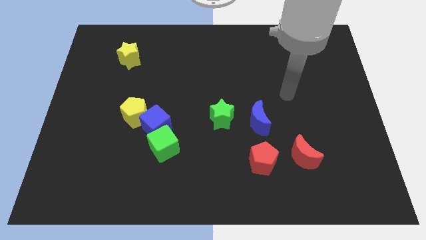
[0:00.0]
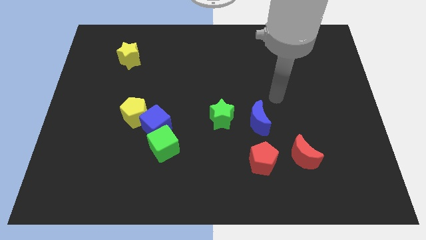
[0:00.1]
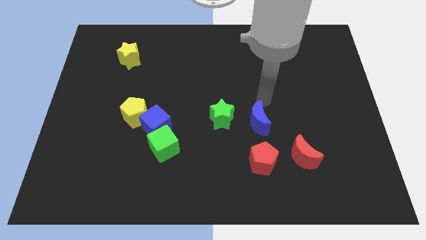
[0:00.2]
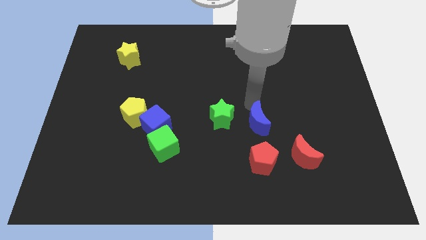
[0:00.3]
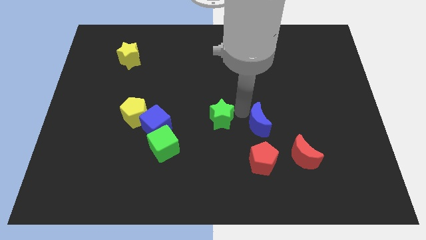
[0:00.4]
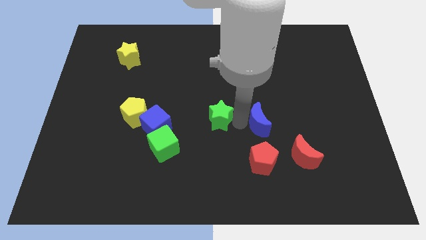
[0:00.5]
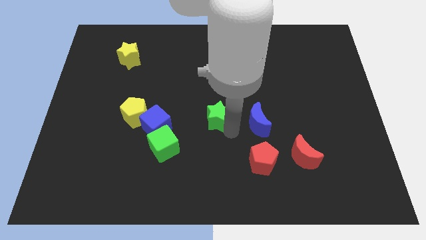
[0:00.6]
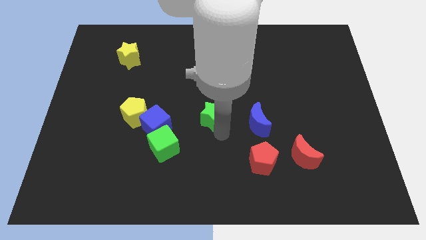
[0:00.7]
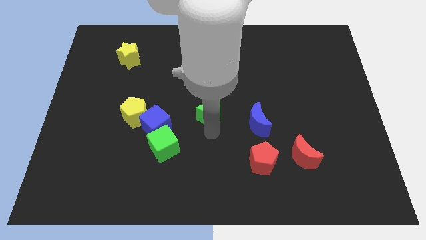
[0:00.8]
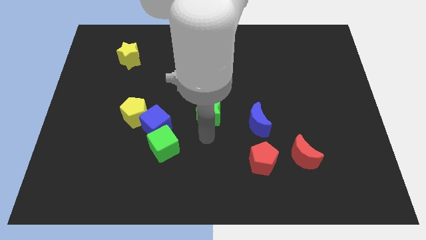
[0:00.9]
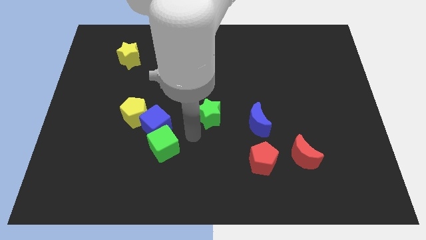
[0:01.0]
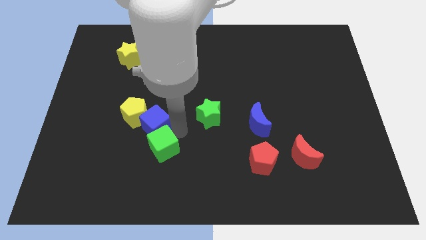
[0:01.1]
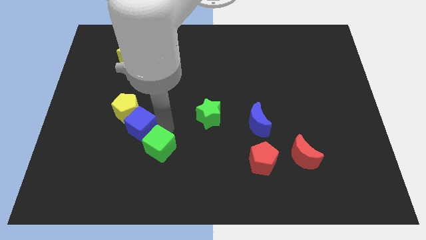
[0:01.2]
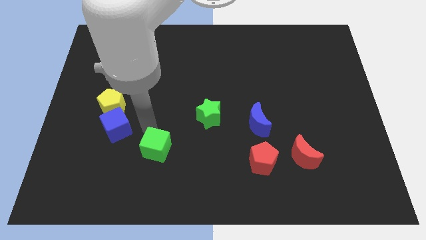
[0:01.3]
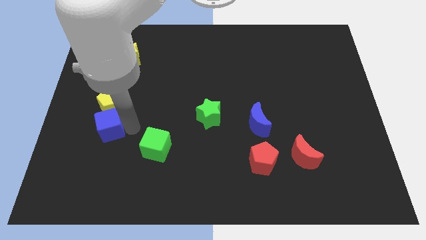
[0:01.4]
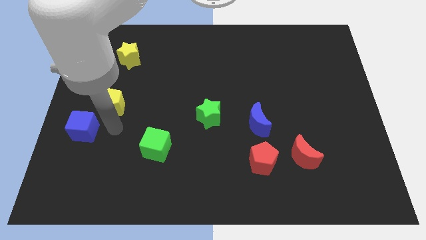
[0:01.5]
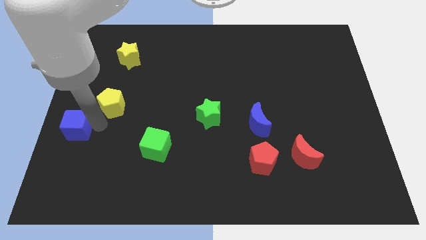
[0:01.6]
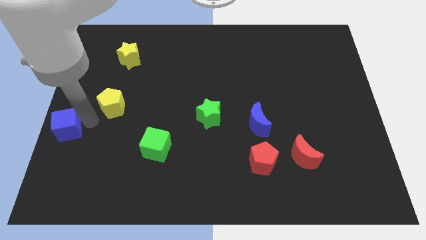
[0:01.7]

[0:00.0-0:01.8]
separate the yellow pentagon from the blue cube

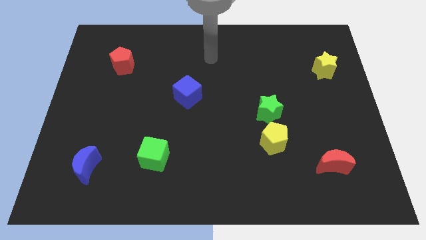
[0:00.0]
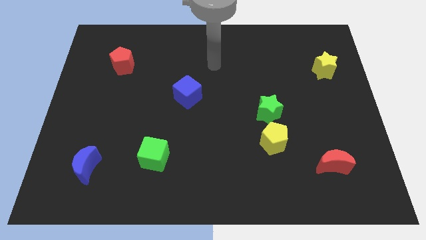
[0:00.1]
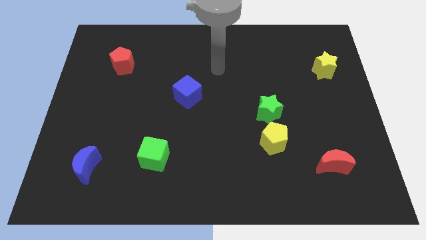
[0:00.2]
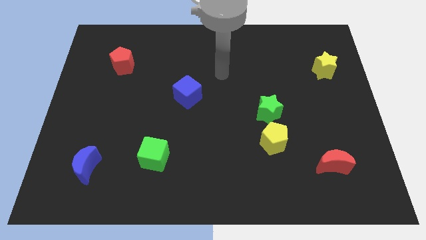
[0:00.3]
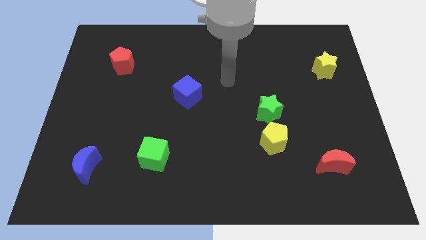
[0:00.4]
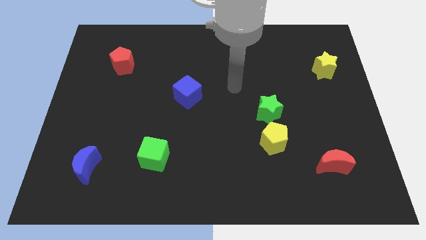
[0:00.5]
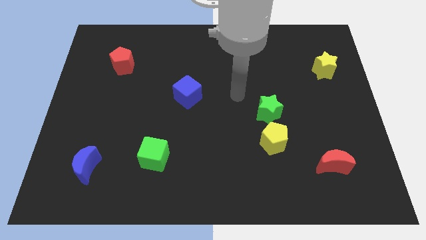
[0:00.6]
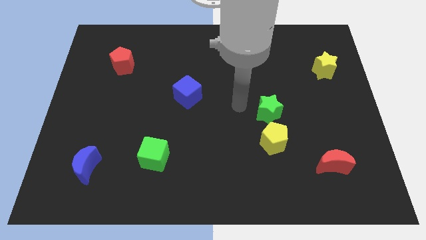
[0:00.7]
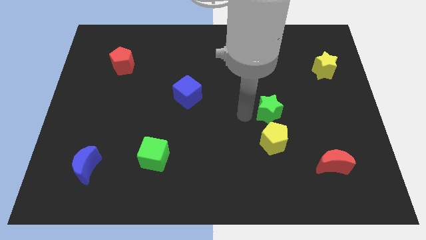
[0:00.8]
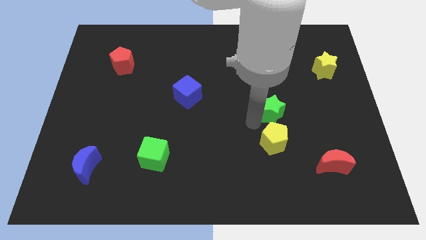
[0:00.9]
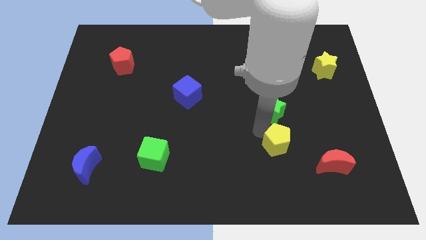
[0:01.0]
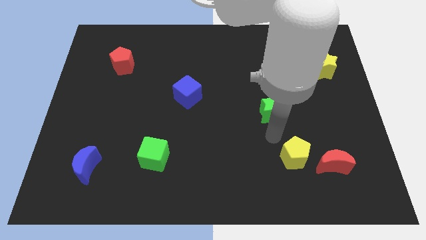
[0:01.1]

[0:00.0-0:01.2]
pull the green star apart from the yellow pentagon

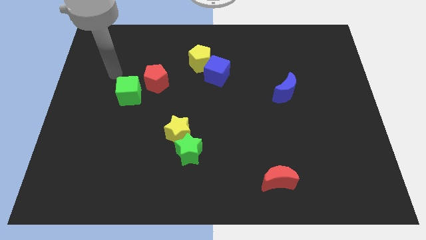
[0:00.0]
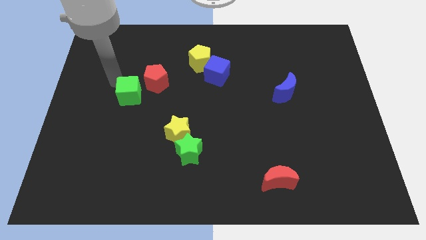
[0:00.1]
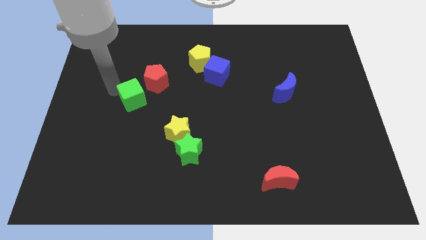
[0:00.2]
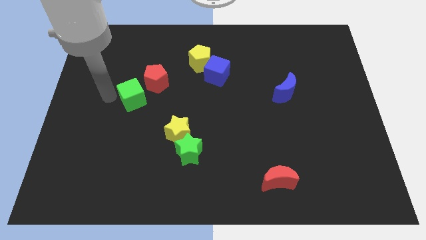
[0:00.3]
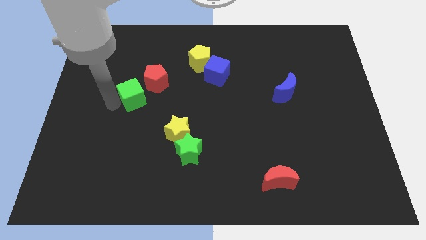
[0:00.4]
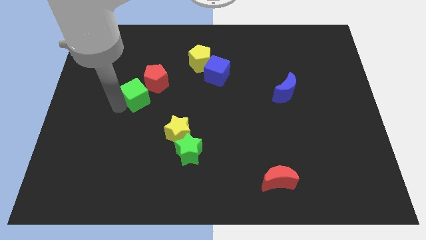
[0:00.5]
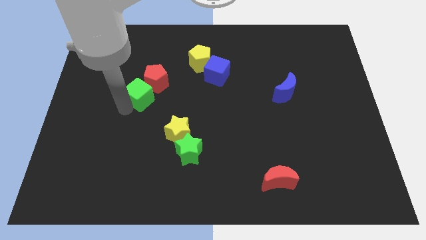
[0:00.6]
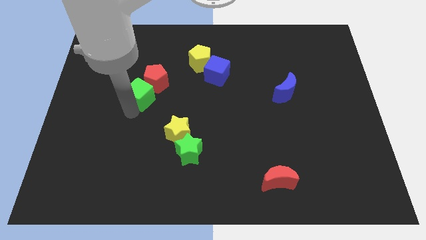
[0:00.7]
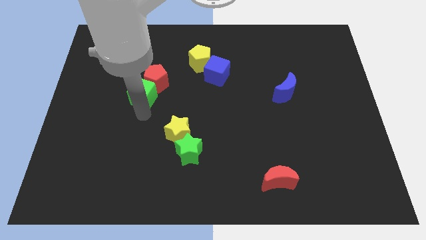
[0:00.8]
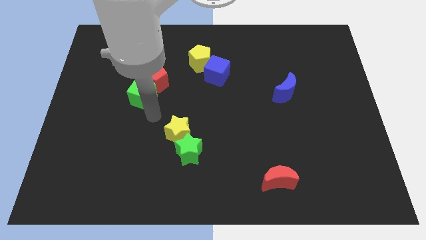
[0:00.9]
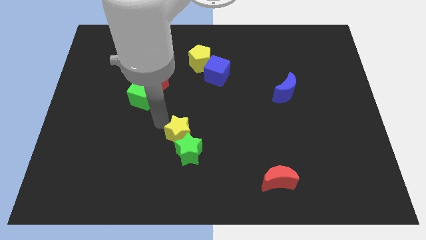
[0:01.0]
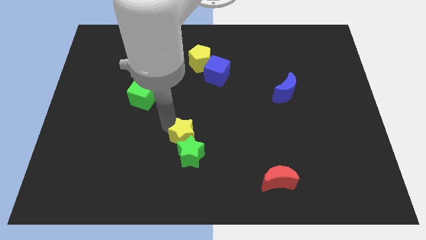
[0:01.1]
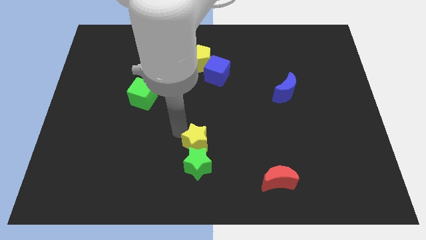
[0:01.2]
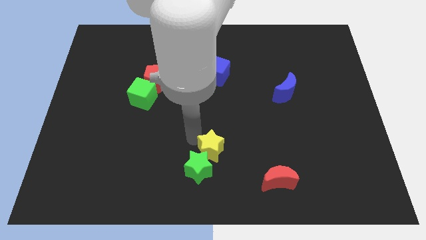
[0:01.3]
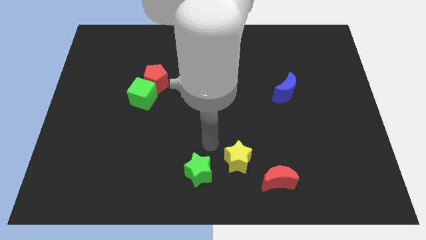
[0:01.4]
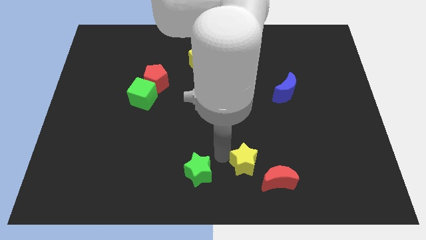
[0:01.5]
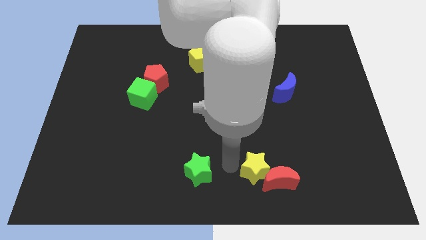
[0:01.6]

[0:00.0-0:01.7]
separate the green star from the yellow star

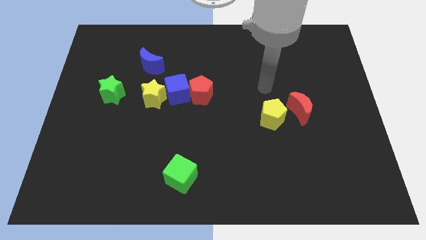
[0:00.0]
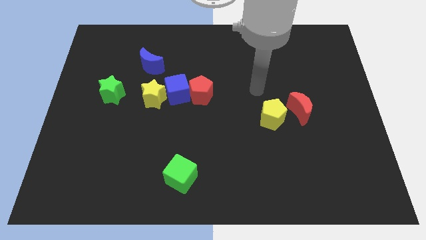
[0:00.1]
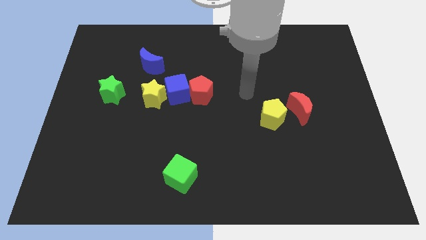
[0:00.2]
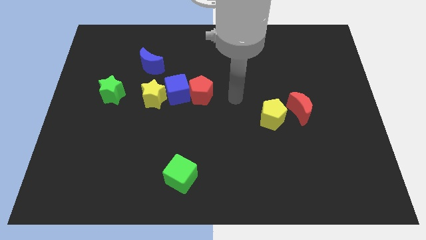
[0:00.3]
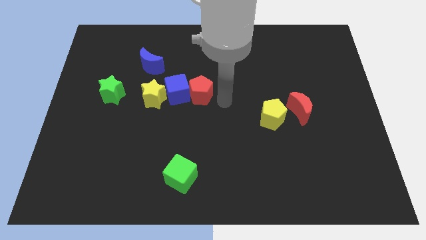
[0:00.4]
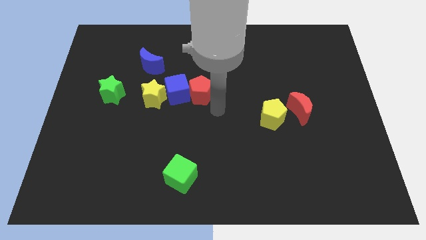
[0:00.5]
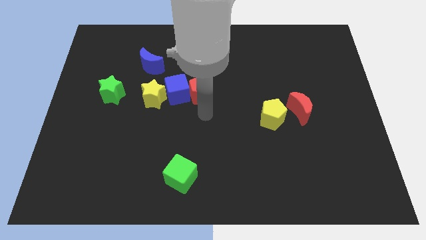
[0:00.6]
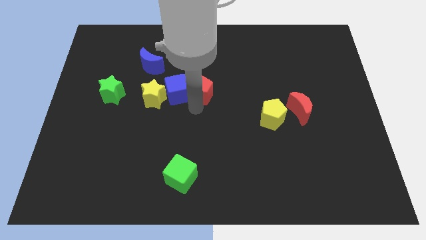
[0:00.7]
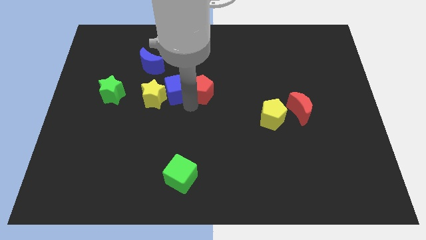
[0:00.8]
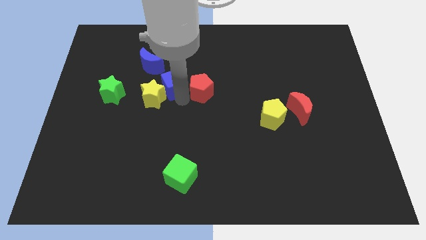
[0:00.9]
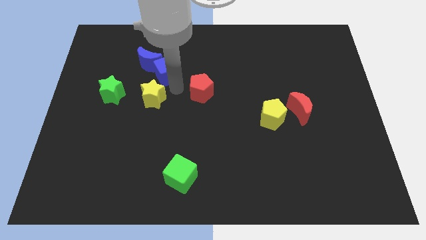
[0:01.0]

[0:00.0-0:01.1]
pull the red pentagon apart from the blue cube

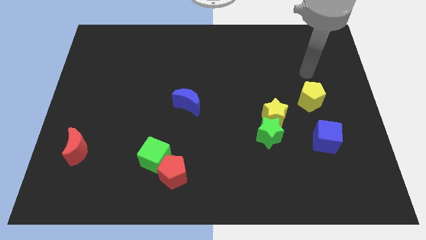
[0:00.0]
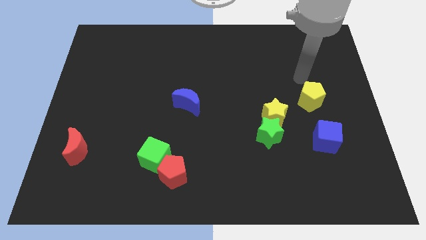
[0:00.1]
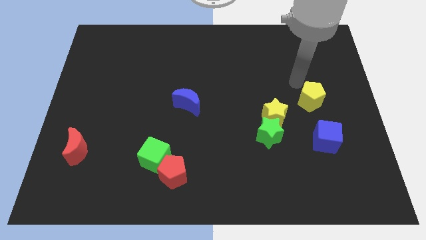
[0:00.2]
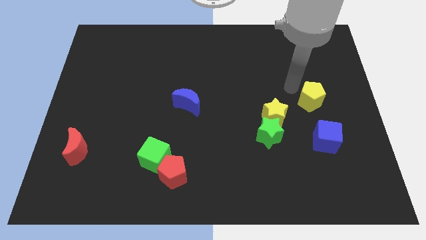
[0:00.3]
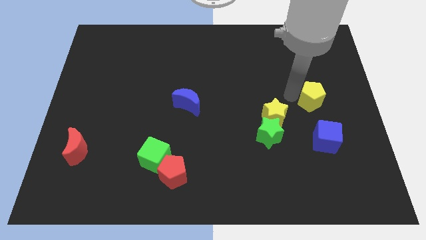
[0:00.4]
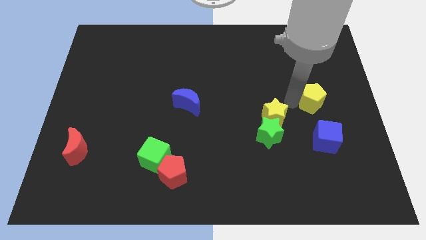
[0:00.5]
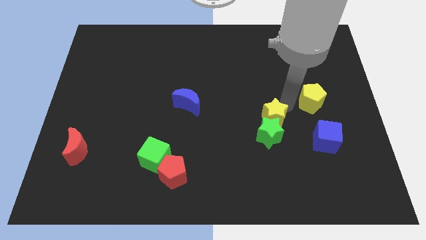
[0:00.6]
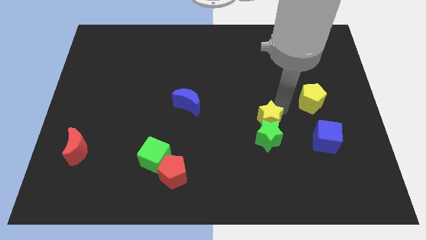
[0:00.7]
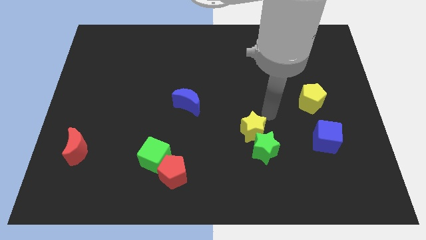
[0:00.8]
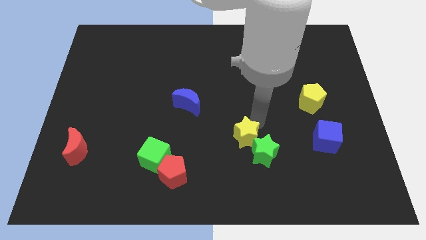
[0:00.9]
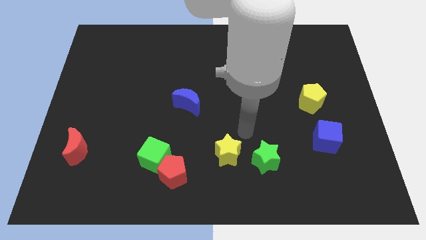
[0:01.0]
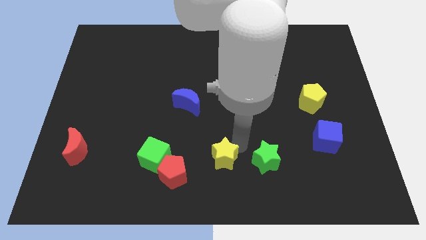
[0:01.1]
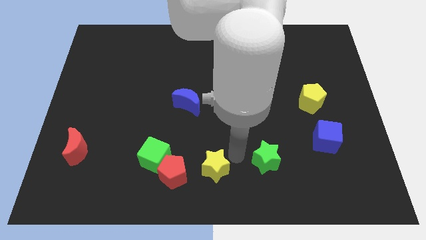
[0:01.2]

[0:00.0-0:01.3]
pull the green star apart from the yellow star

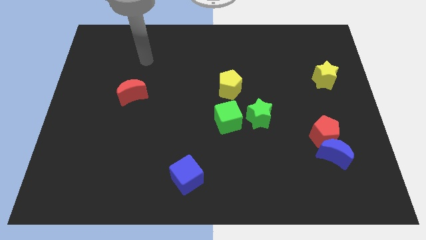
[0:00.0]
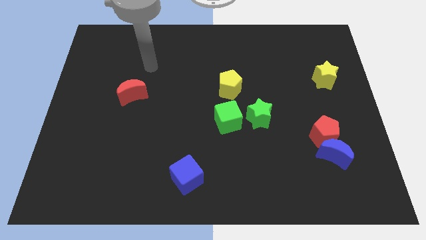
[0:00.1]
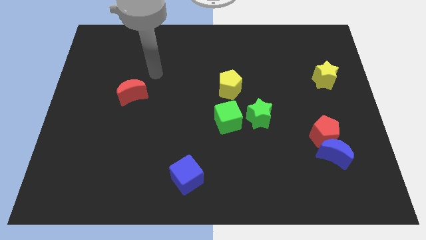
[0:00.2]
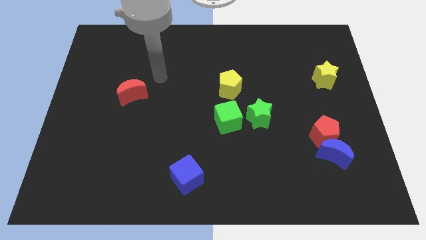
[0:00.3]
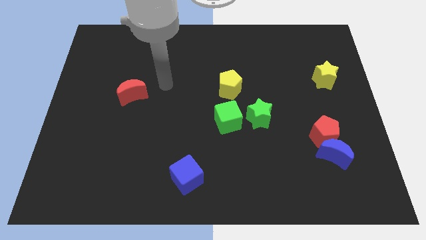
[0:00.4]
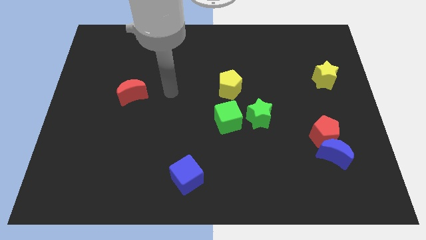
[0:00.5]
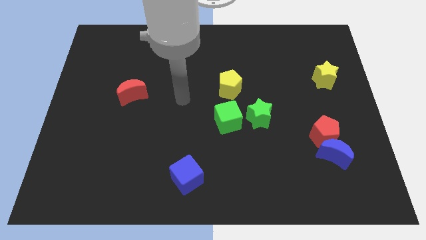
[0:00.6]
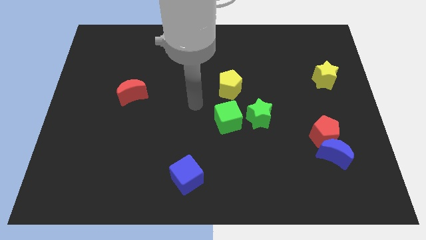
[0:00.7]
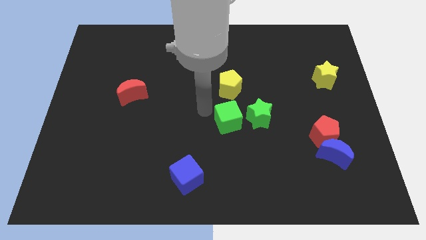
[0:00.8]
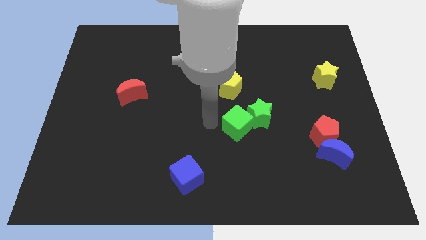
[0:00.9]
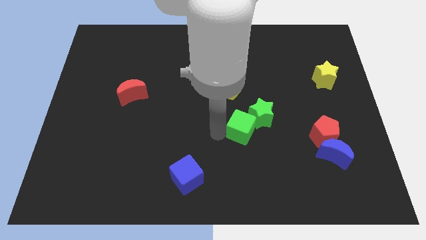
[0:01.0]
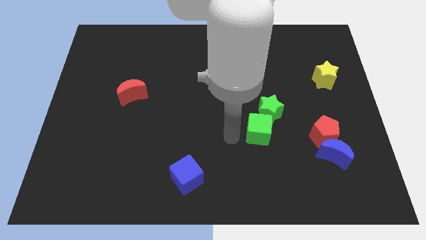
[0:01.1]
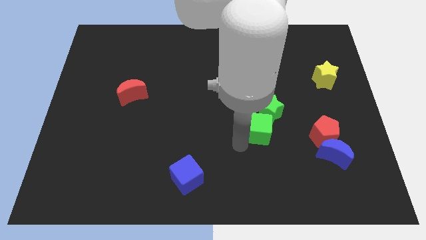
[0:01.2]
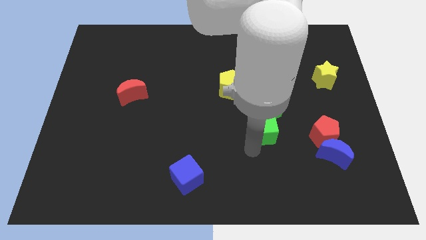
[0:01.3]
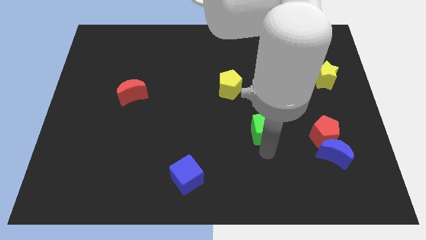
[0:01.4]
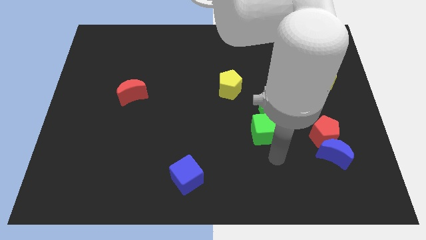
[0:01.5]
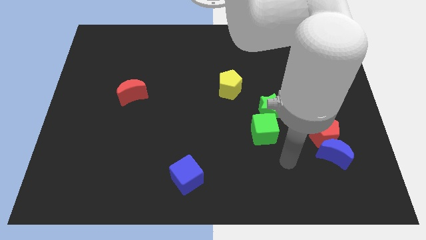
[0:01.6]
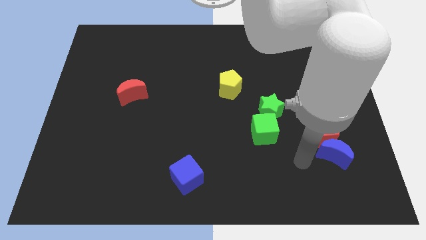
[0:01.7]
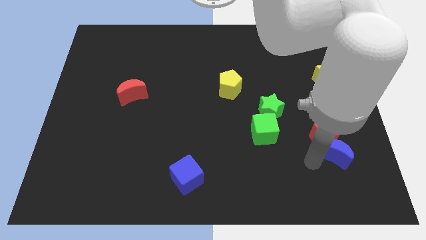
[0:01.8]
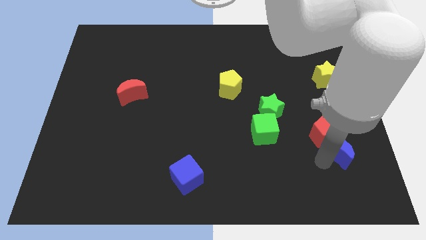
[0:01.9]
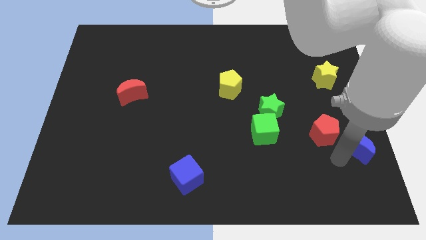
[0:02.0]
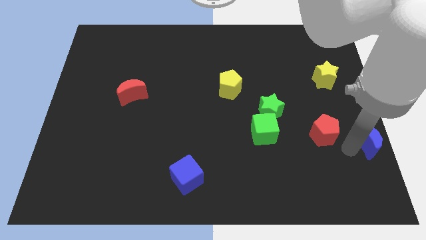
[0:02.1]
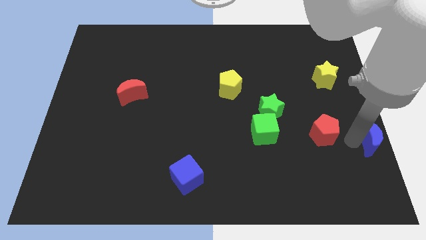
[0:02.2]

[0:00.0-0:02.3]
pull the red pentagon apart from the blue moon

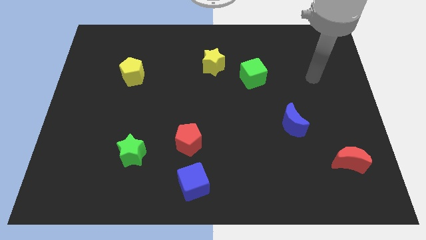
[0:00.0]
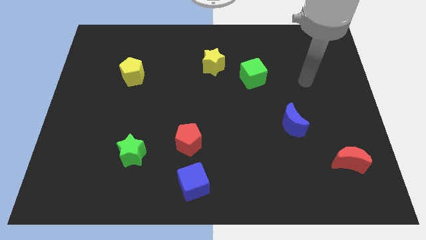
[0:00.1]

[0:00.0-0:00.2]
move the red pentagon away from the blue cube
